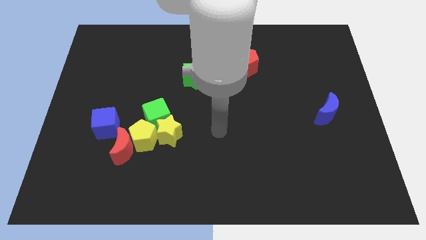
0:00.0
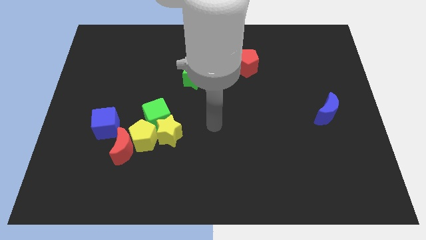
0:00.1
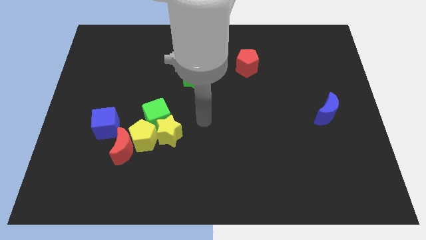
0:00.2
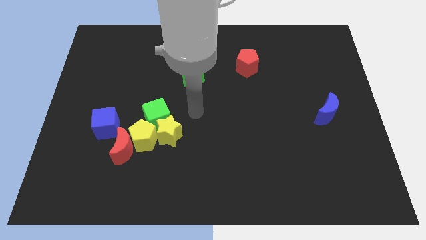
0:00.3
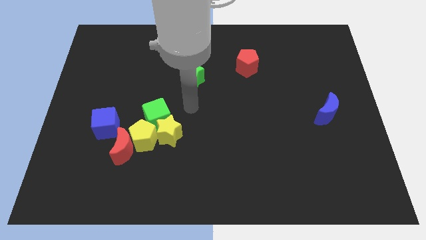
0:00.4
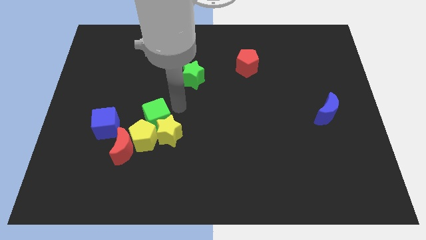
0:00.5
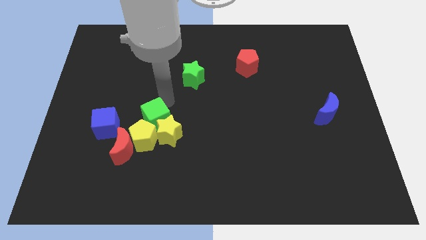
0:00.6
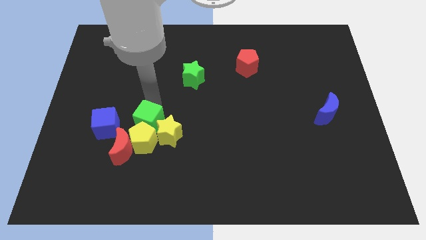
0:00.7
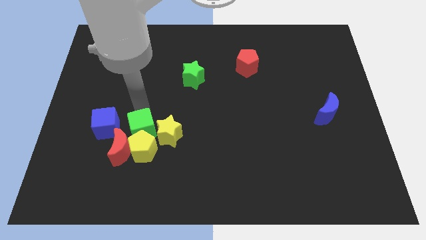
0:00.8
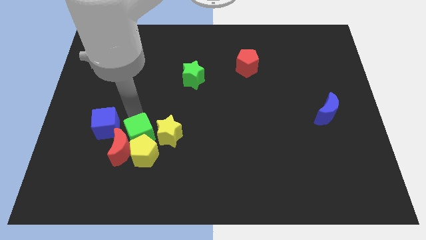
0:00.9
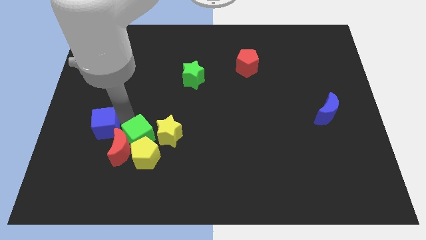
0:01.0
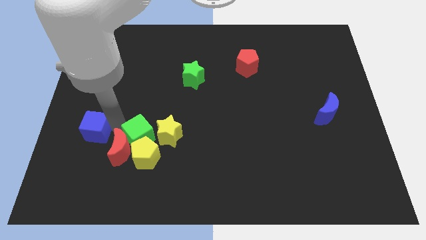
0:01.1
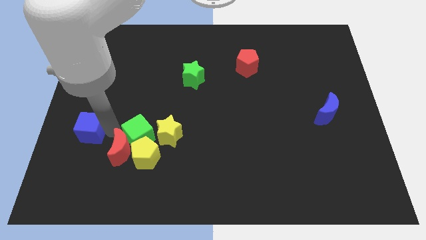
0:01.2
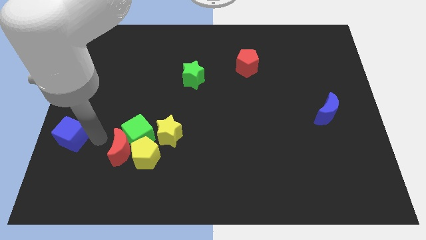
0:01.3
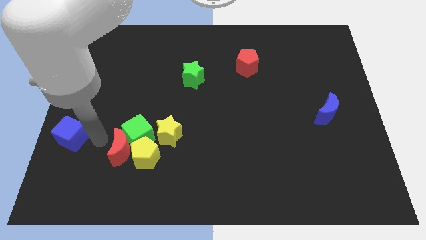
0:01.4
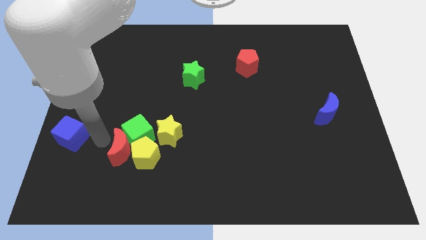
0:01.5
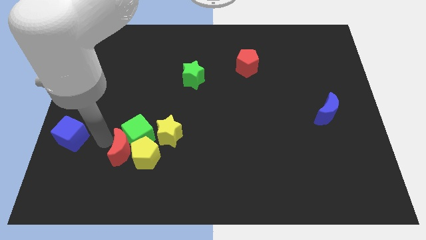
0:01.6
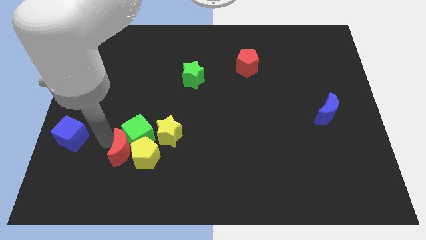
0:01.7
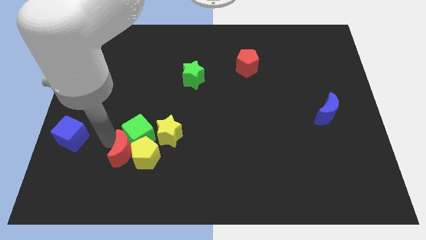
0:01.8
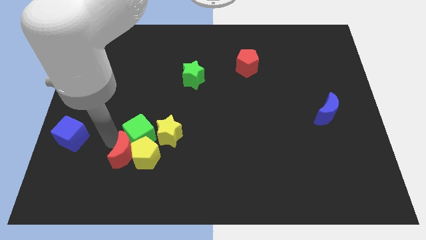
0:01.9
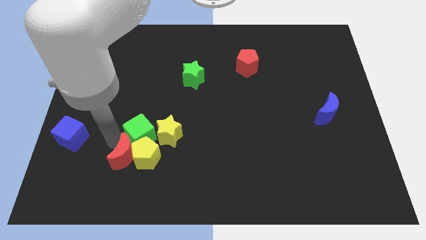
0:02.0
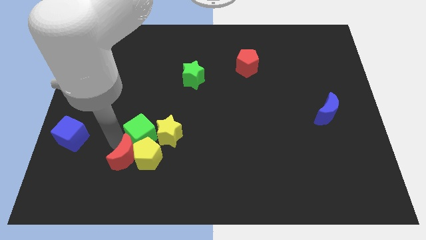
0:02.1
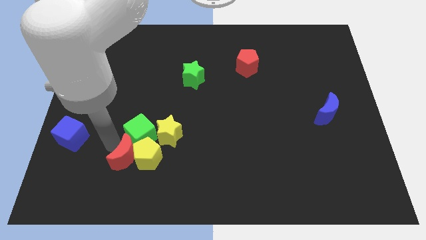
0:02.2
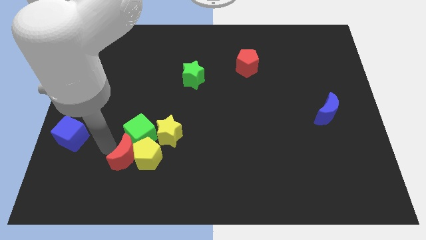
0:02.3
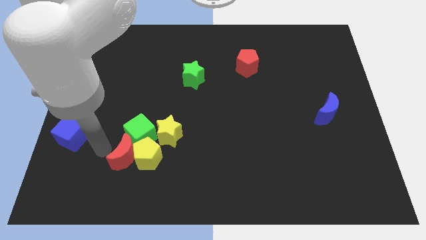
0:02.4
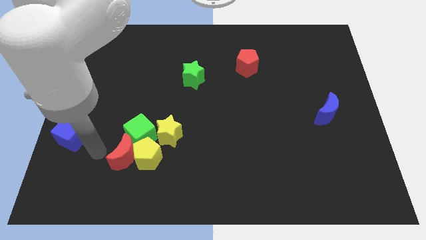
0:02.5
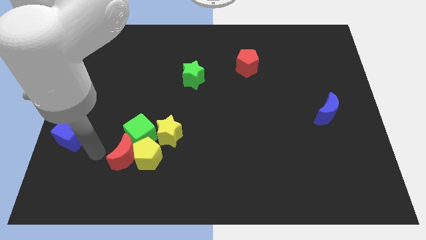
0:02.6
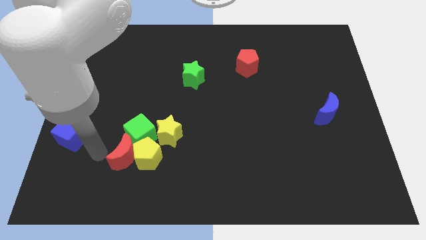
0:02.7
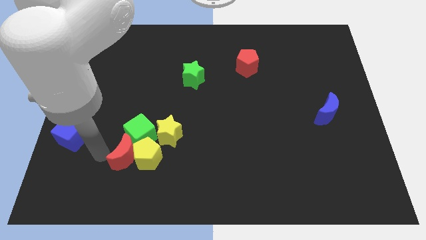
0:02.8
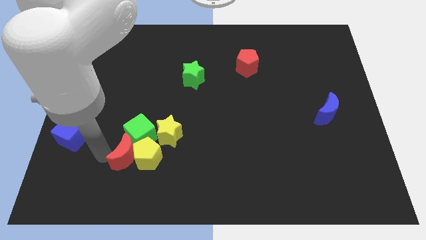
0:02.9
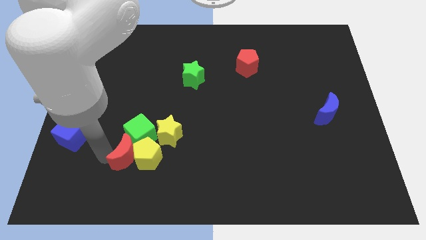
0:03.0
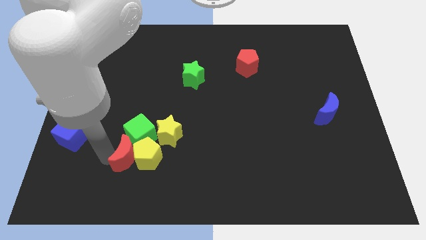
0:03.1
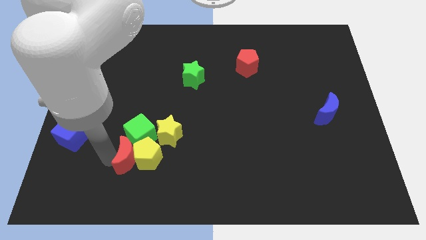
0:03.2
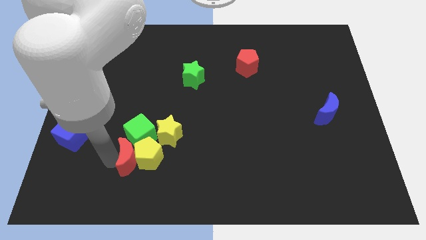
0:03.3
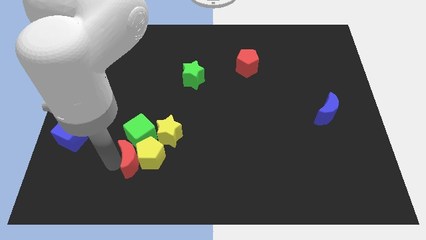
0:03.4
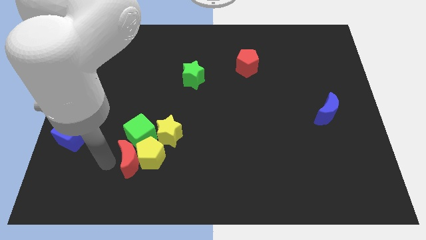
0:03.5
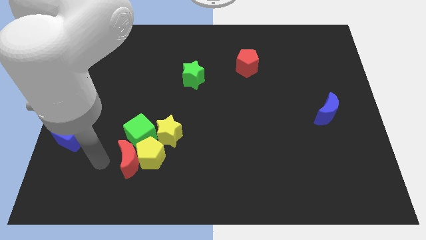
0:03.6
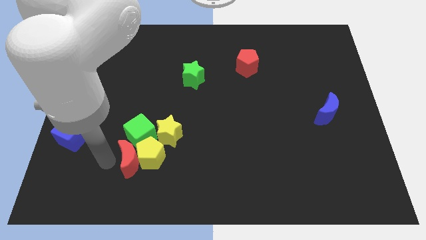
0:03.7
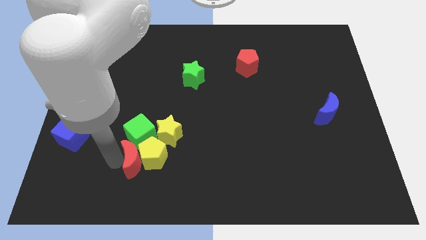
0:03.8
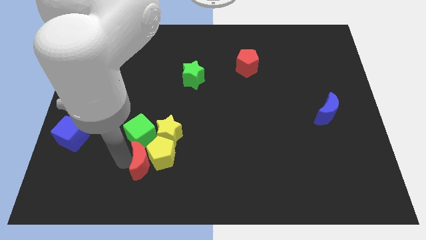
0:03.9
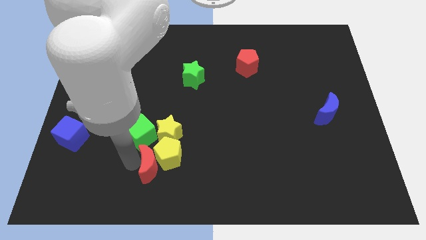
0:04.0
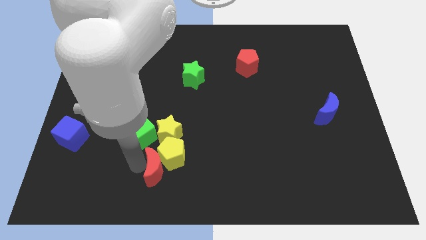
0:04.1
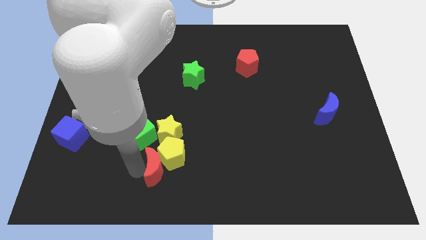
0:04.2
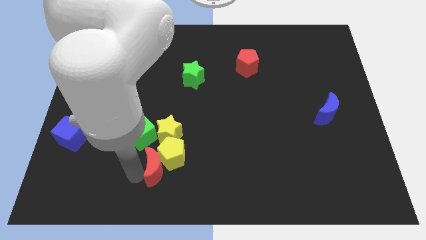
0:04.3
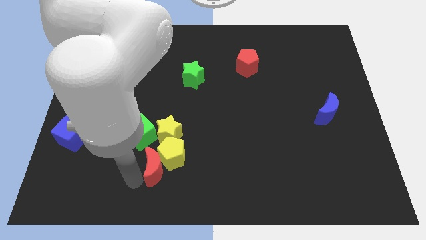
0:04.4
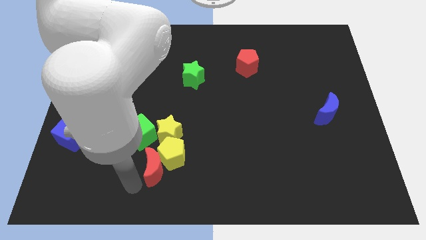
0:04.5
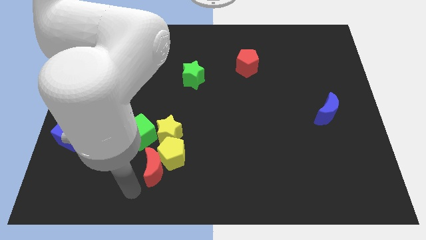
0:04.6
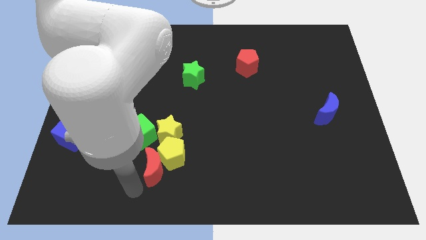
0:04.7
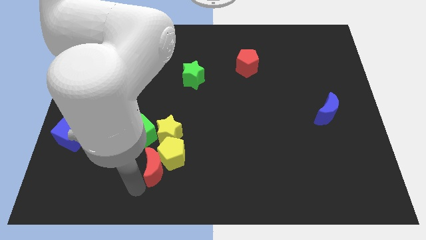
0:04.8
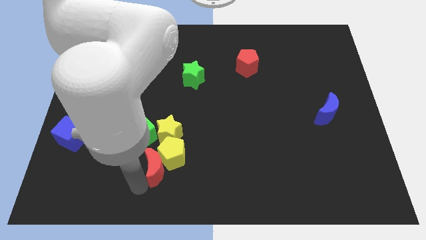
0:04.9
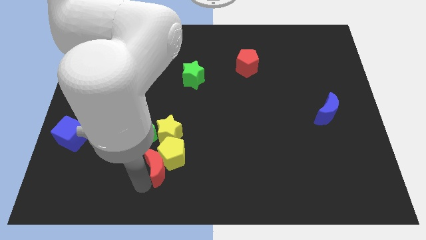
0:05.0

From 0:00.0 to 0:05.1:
push the red moon right a little bit

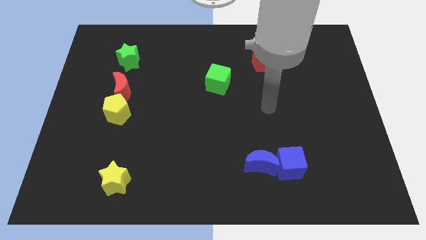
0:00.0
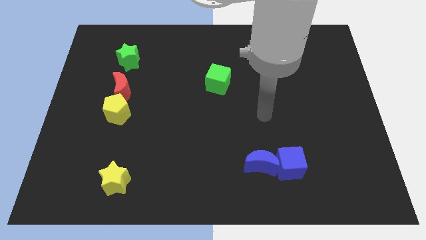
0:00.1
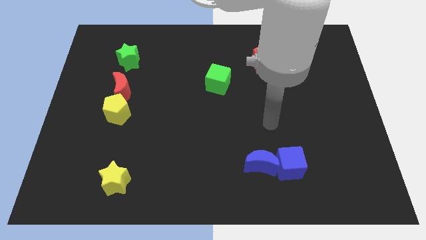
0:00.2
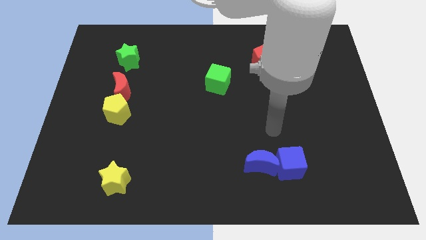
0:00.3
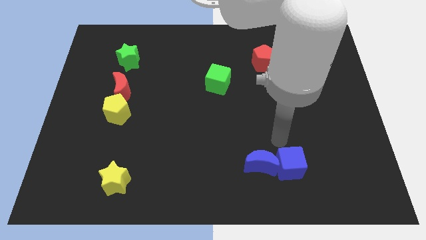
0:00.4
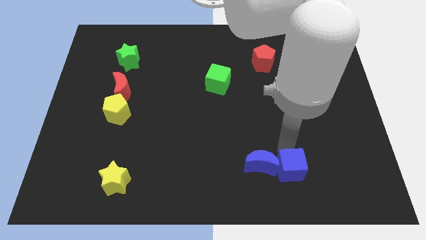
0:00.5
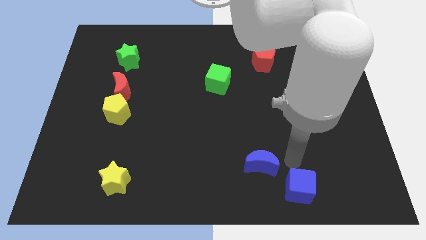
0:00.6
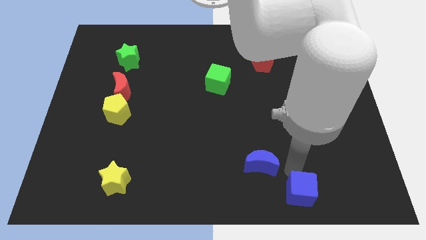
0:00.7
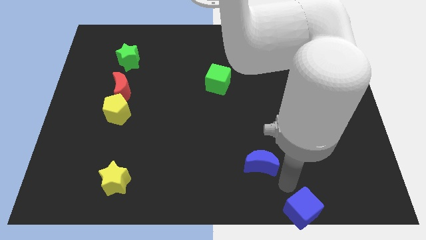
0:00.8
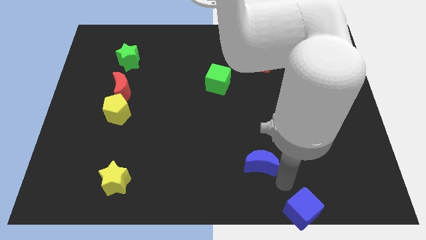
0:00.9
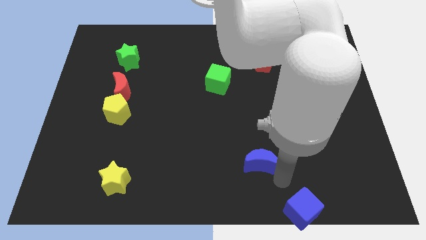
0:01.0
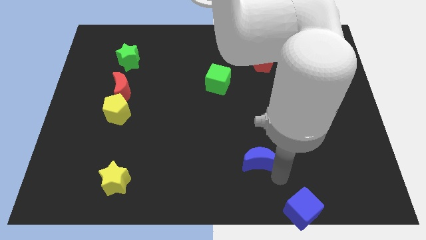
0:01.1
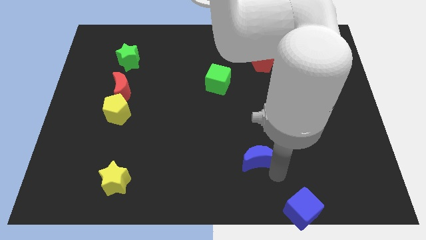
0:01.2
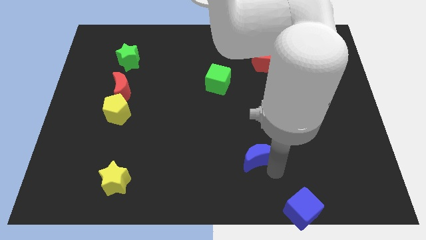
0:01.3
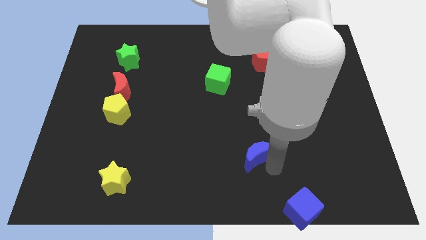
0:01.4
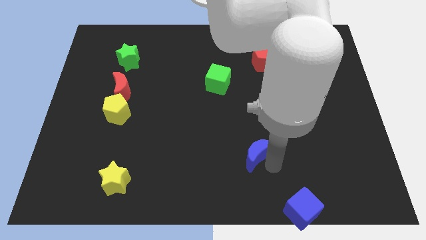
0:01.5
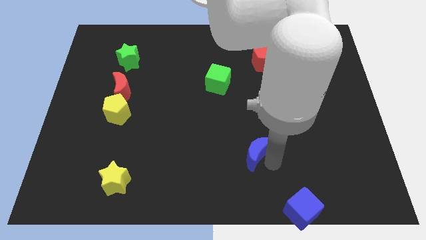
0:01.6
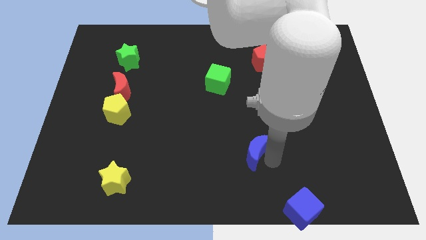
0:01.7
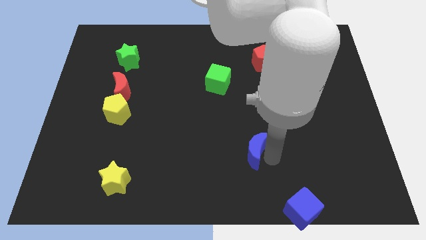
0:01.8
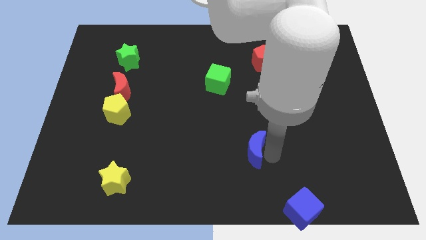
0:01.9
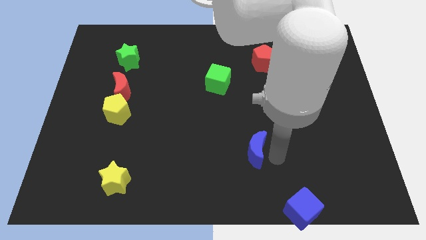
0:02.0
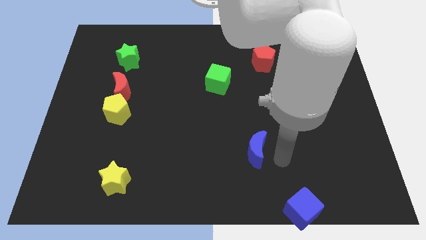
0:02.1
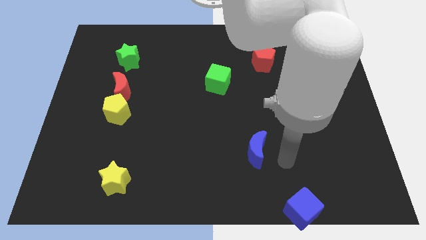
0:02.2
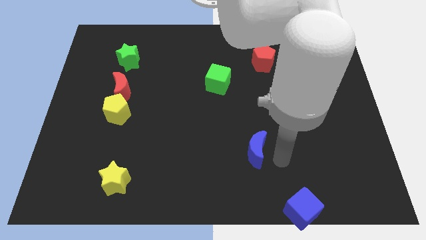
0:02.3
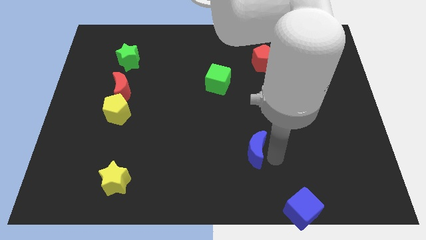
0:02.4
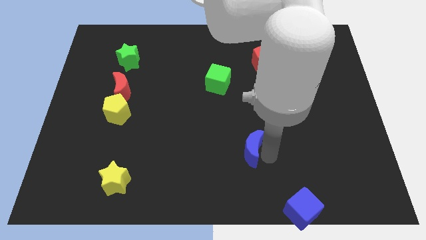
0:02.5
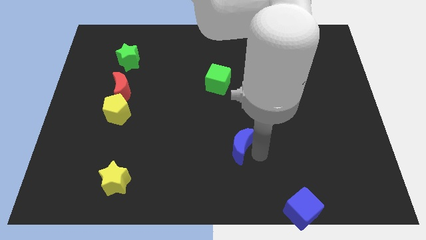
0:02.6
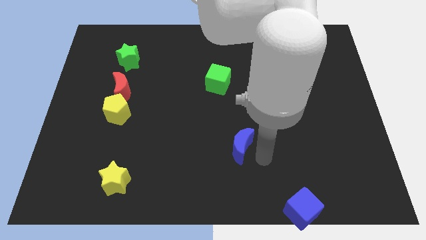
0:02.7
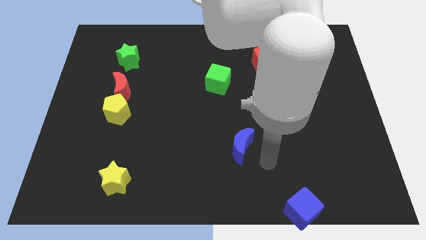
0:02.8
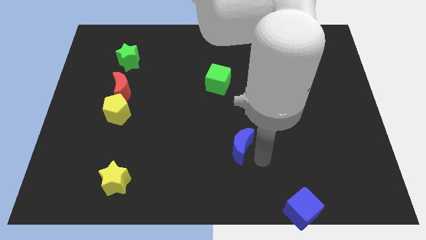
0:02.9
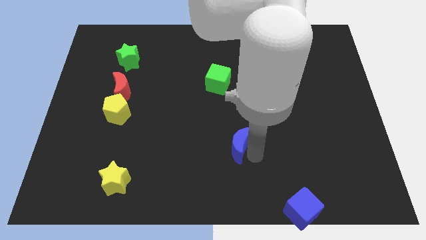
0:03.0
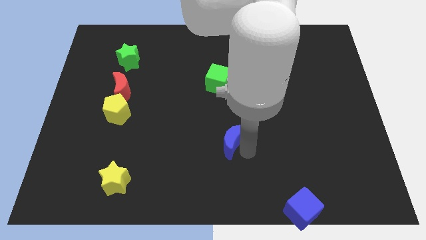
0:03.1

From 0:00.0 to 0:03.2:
move the blue moon diagonally upwards and left slightly
